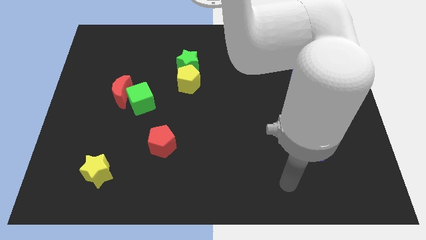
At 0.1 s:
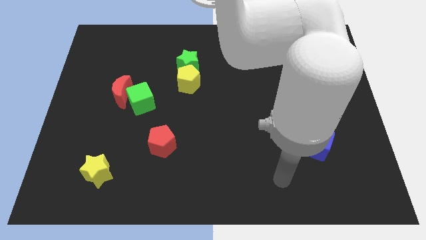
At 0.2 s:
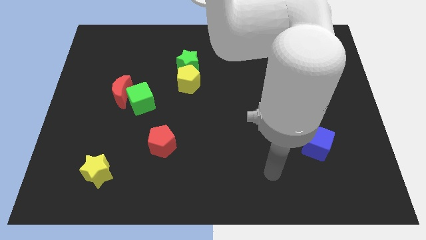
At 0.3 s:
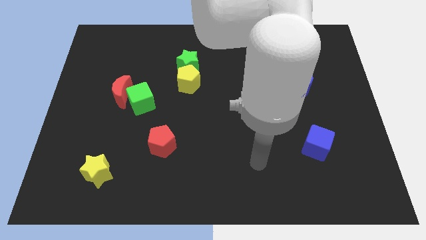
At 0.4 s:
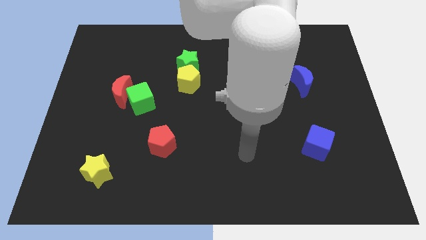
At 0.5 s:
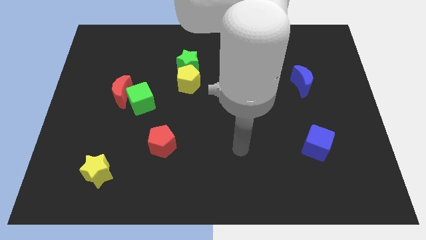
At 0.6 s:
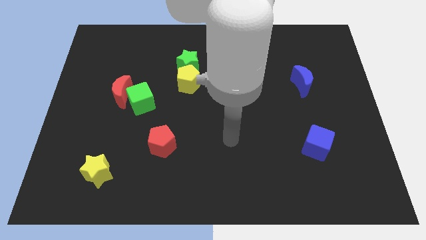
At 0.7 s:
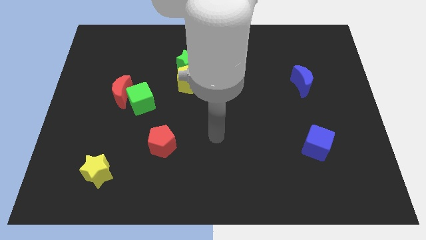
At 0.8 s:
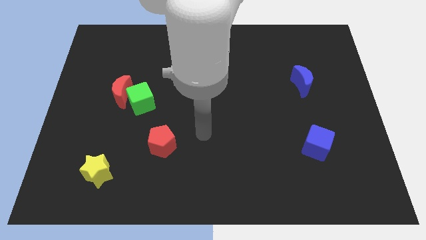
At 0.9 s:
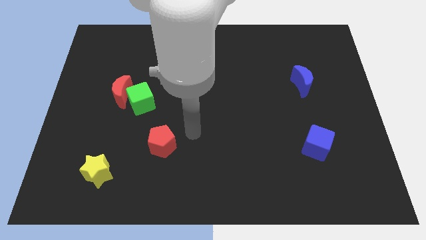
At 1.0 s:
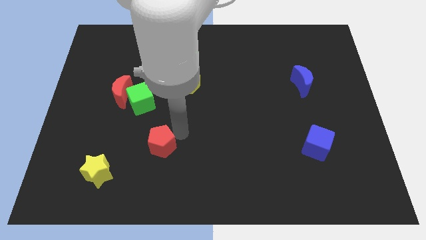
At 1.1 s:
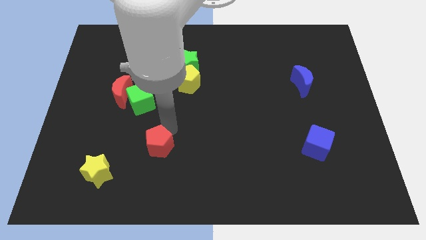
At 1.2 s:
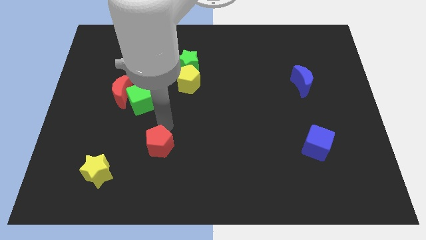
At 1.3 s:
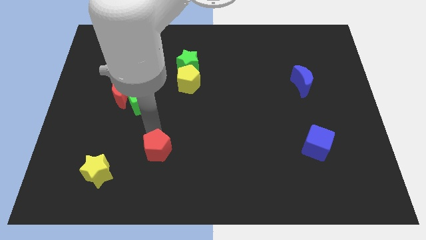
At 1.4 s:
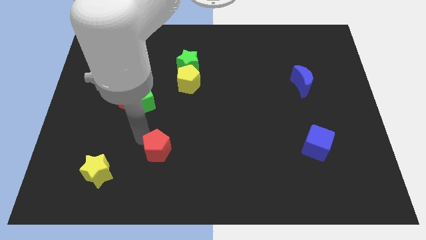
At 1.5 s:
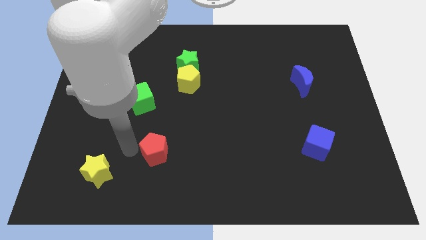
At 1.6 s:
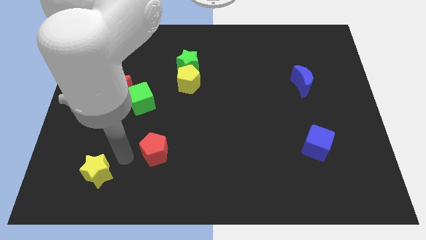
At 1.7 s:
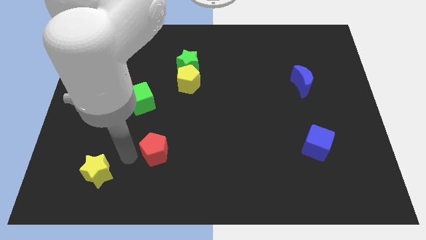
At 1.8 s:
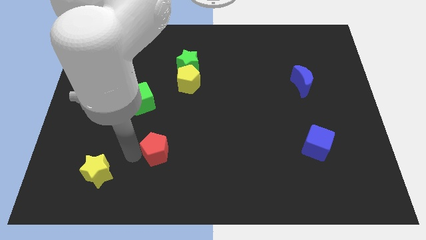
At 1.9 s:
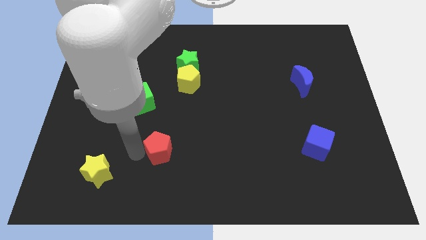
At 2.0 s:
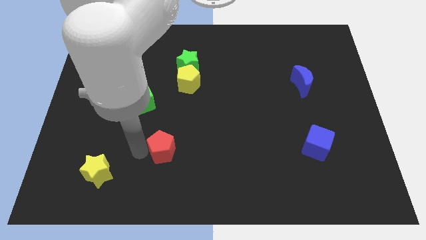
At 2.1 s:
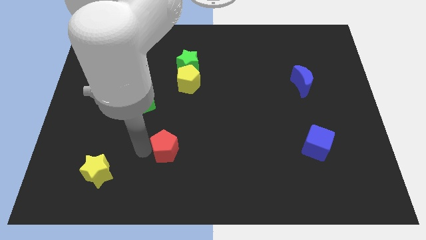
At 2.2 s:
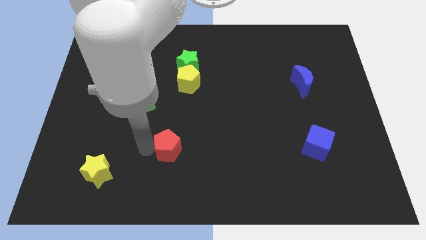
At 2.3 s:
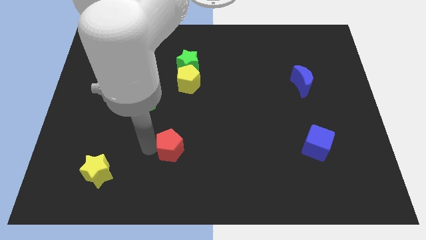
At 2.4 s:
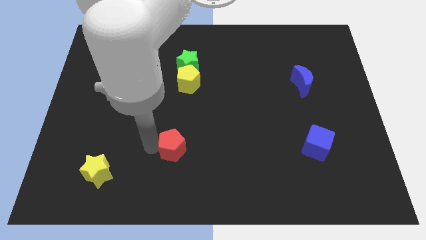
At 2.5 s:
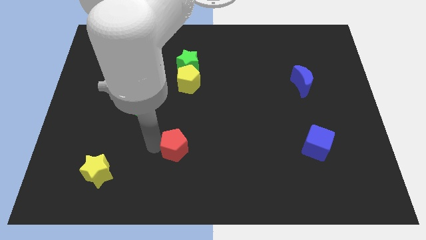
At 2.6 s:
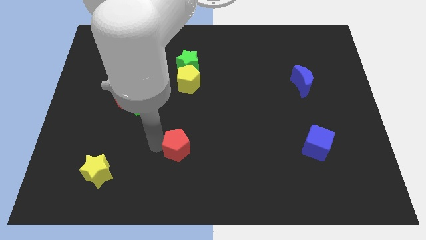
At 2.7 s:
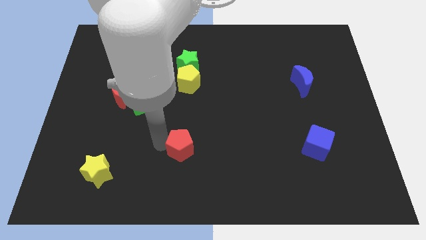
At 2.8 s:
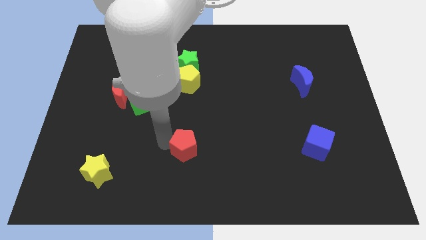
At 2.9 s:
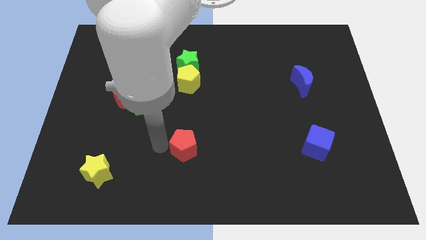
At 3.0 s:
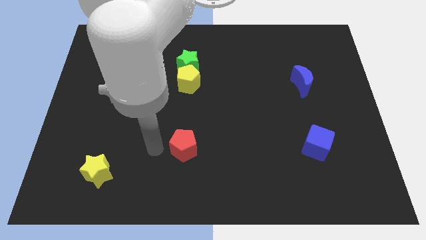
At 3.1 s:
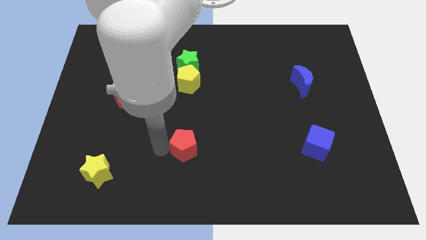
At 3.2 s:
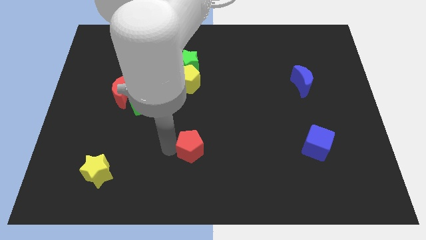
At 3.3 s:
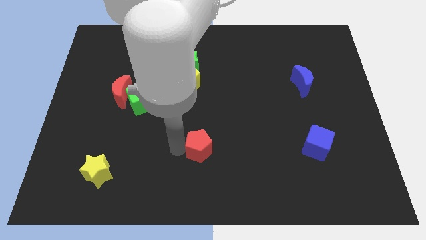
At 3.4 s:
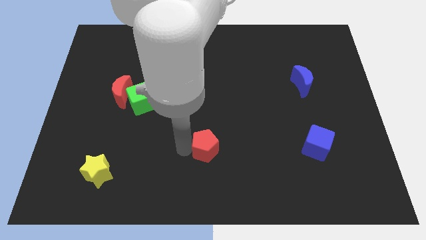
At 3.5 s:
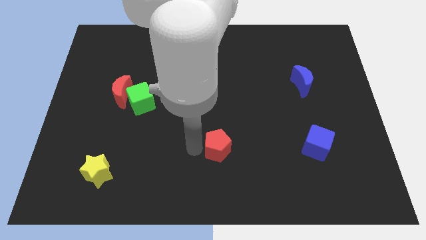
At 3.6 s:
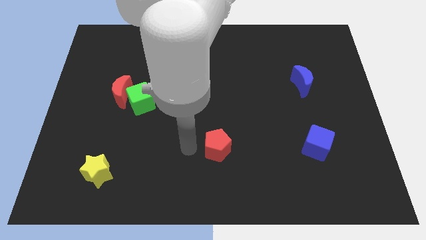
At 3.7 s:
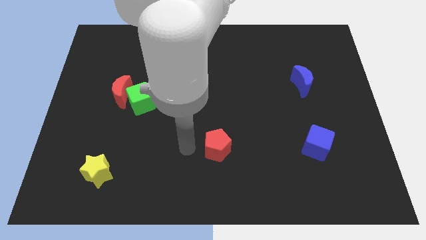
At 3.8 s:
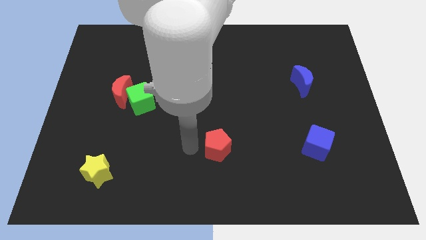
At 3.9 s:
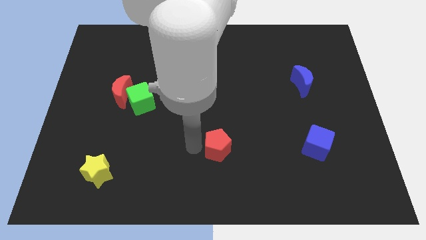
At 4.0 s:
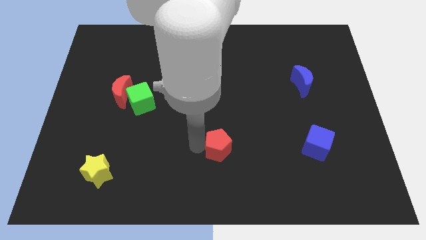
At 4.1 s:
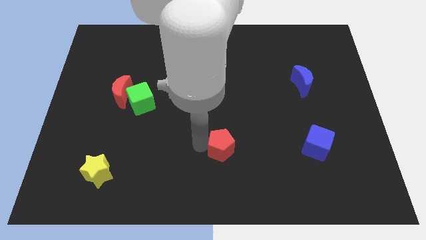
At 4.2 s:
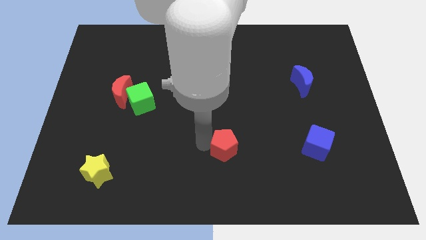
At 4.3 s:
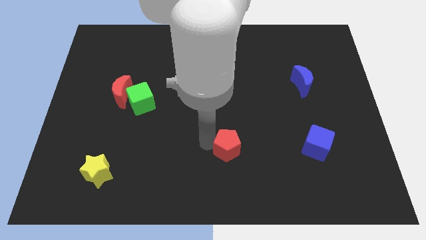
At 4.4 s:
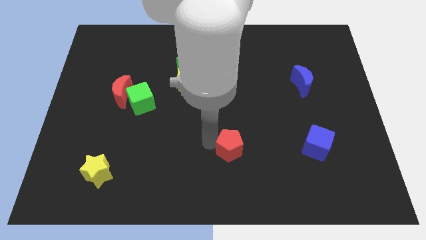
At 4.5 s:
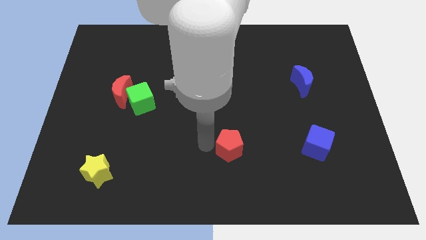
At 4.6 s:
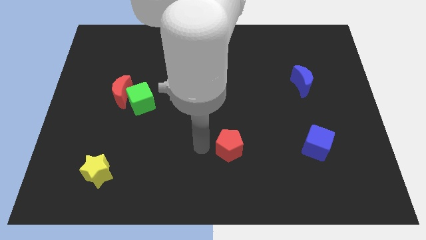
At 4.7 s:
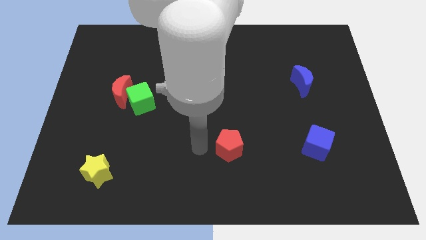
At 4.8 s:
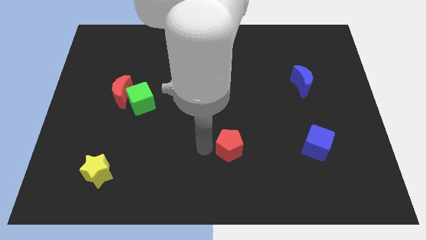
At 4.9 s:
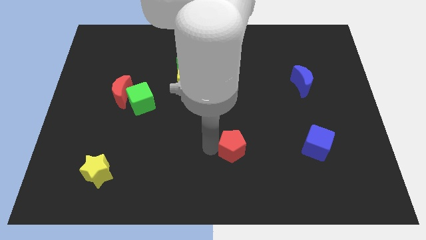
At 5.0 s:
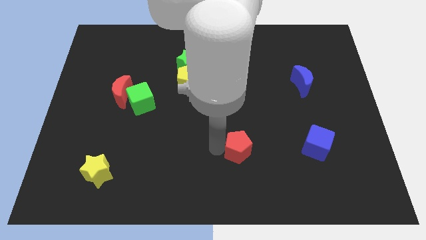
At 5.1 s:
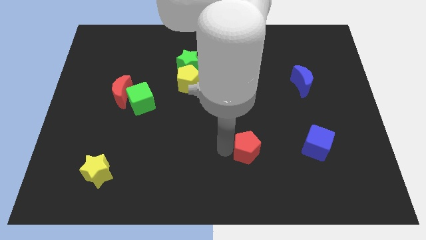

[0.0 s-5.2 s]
push the red pentagon to the left of the blue cube

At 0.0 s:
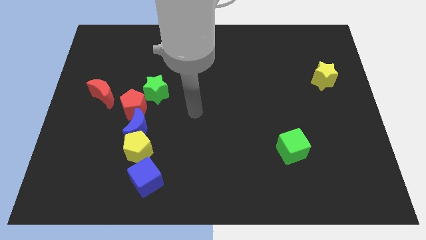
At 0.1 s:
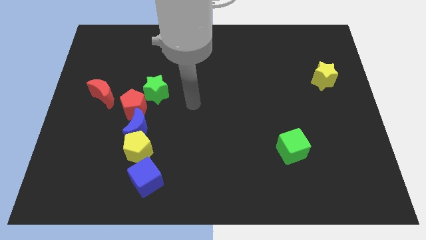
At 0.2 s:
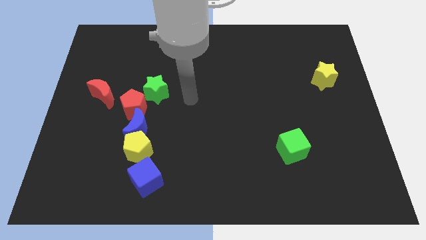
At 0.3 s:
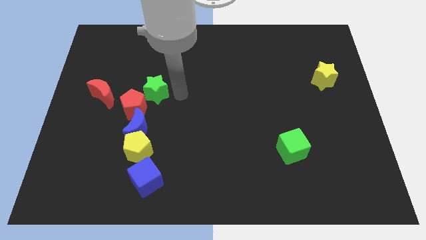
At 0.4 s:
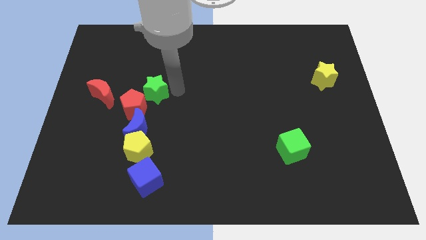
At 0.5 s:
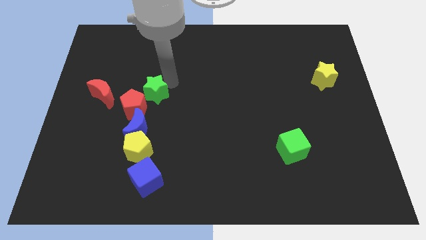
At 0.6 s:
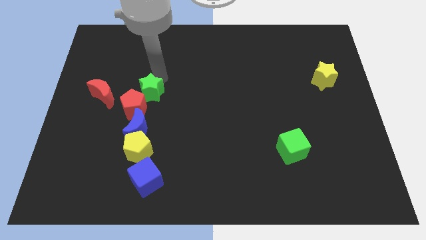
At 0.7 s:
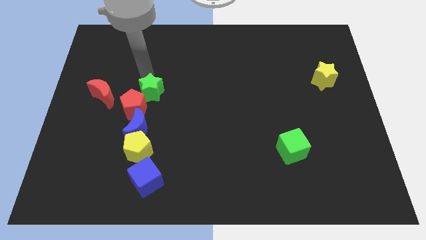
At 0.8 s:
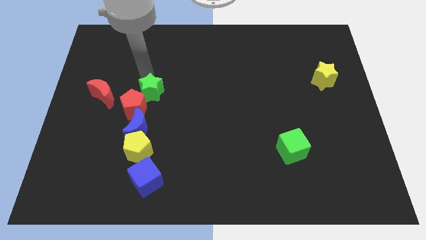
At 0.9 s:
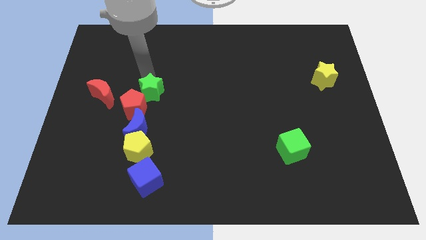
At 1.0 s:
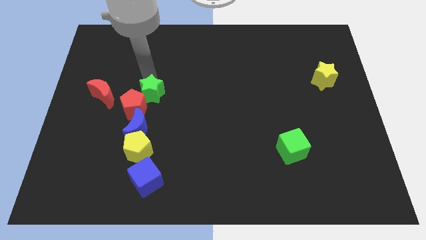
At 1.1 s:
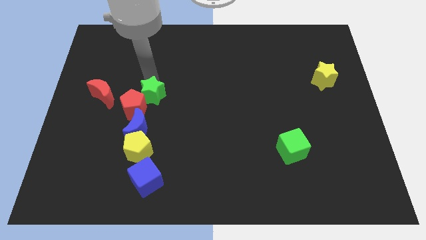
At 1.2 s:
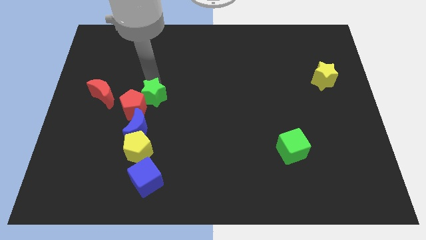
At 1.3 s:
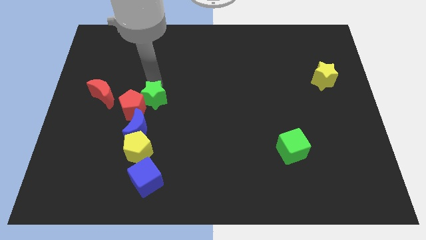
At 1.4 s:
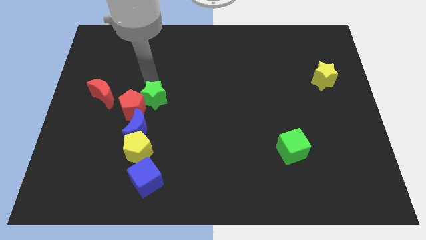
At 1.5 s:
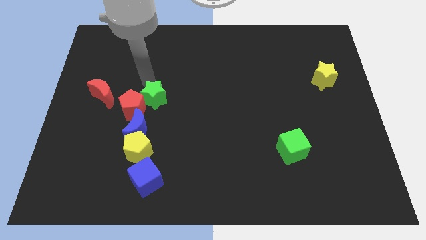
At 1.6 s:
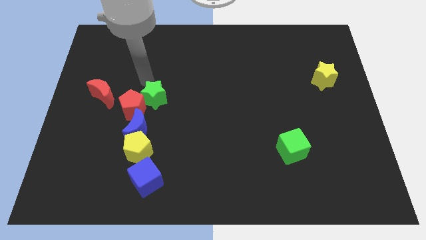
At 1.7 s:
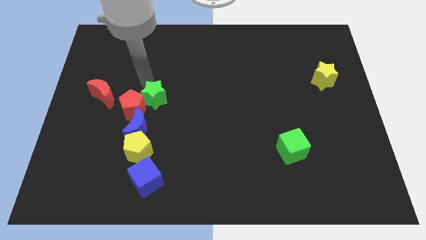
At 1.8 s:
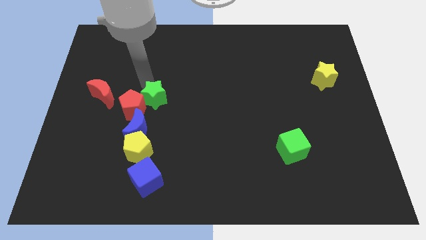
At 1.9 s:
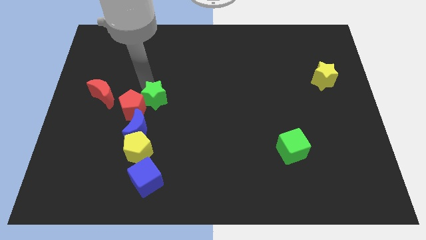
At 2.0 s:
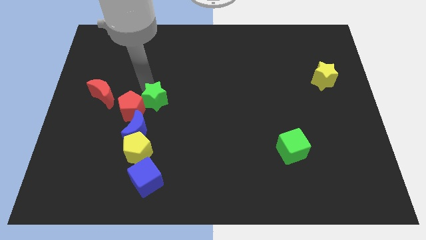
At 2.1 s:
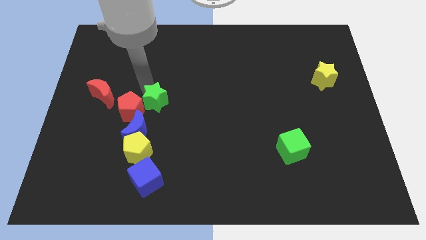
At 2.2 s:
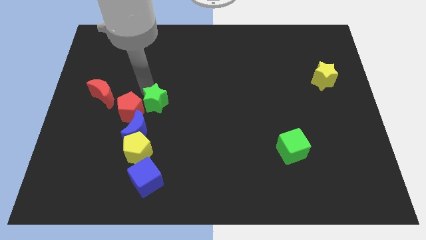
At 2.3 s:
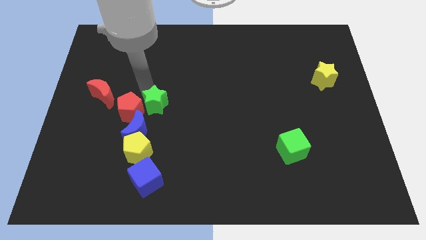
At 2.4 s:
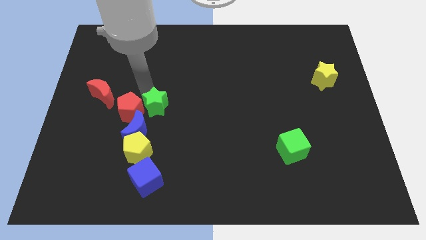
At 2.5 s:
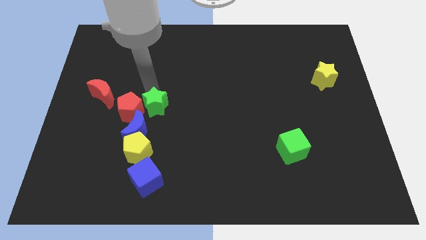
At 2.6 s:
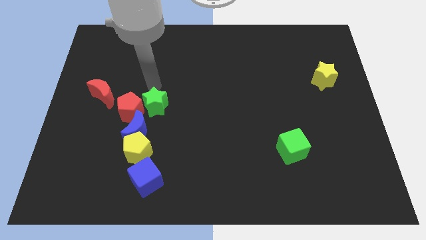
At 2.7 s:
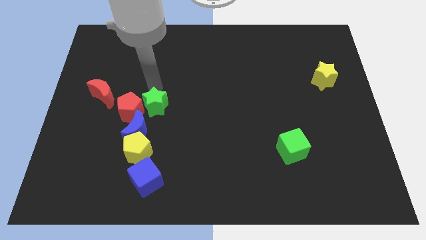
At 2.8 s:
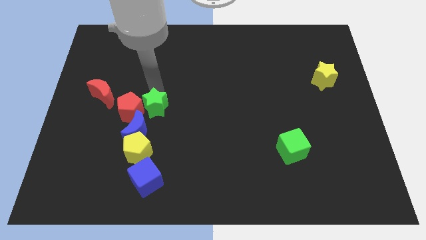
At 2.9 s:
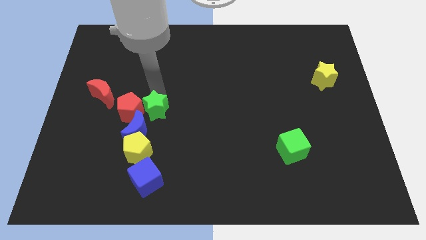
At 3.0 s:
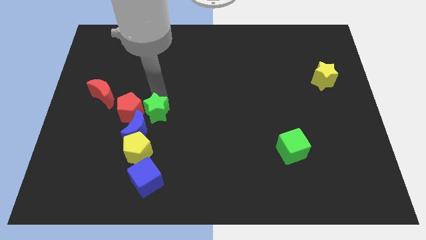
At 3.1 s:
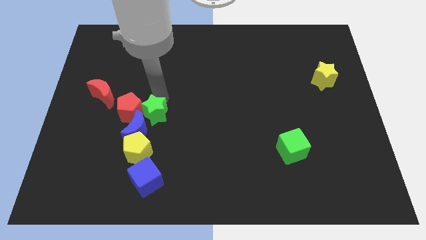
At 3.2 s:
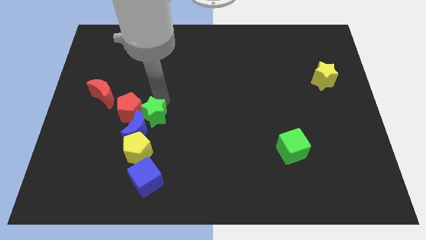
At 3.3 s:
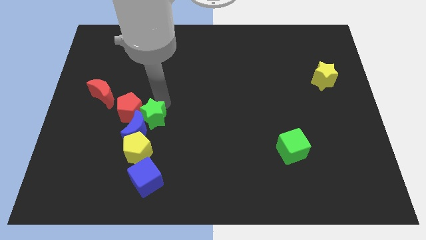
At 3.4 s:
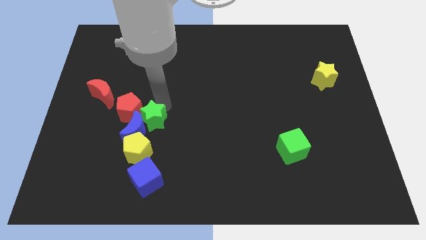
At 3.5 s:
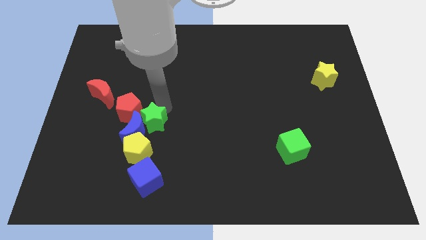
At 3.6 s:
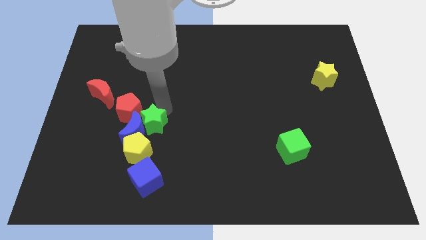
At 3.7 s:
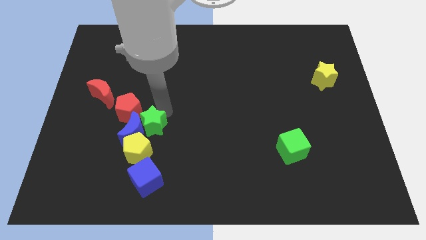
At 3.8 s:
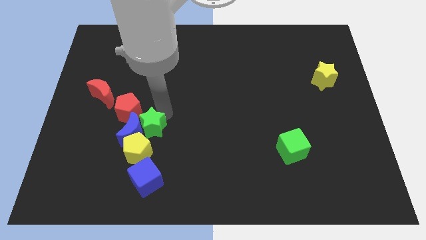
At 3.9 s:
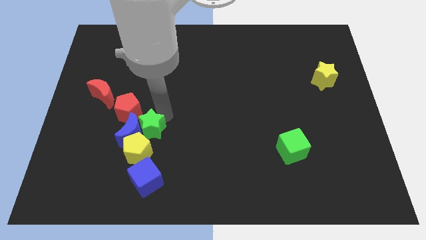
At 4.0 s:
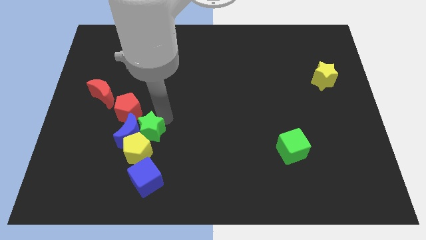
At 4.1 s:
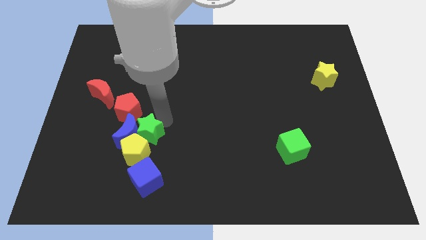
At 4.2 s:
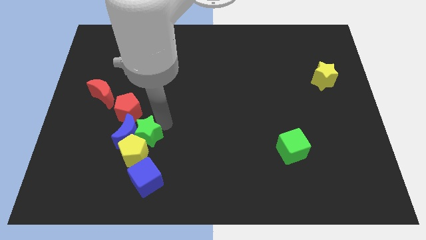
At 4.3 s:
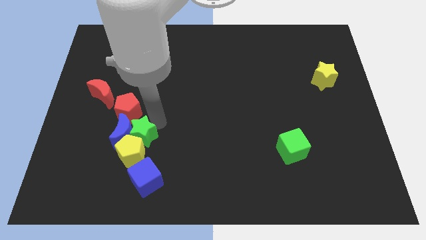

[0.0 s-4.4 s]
put the green star below the red pentagon
